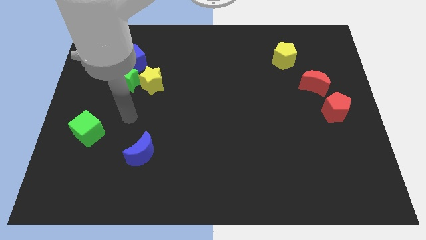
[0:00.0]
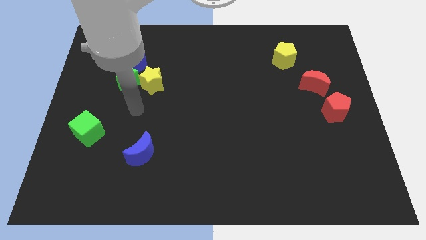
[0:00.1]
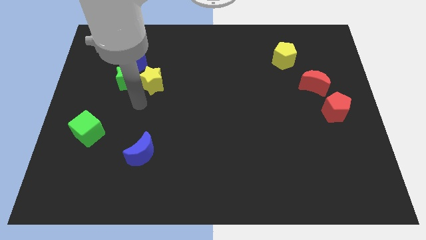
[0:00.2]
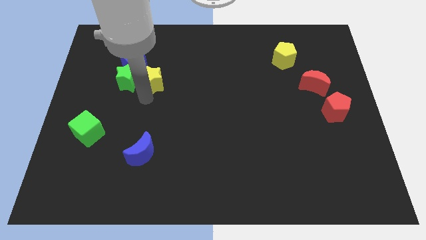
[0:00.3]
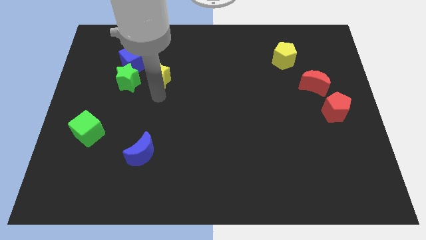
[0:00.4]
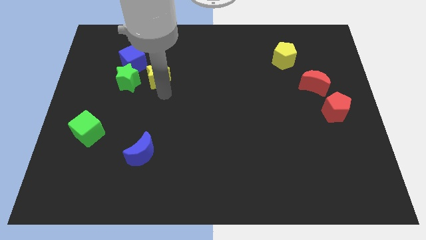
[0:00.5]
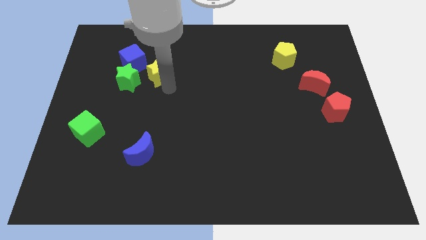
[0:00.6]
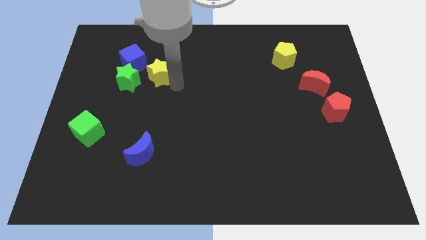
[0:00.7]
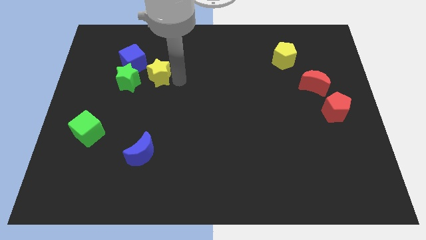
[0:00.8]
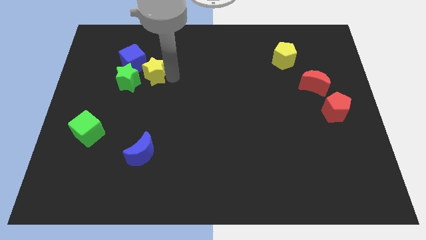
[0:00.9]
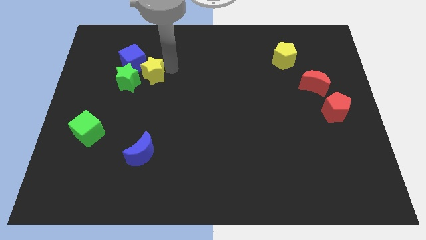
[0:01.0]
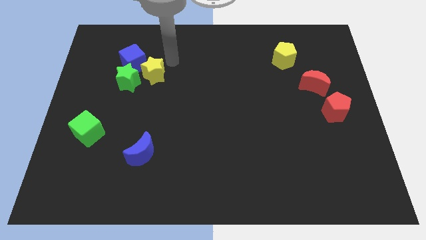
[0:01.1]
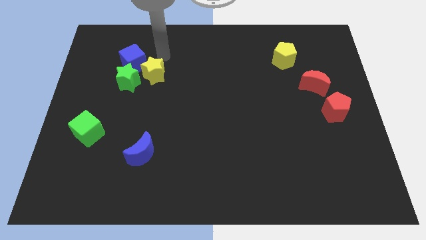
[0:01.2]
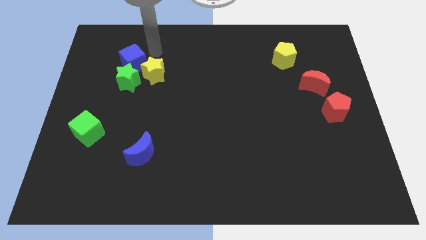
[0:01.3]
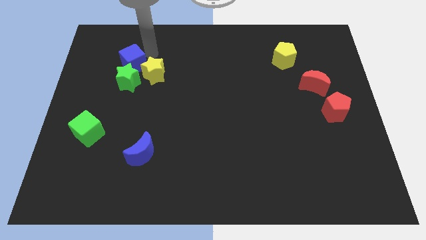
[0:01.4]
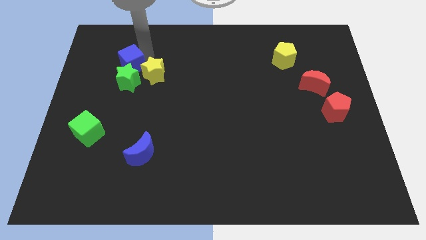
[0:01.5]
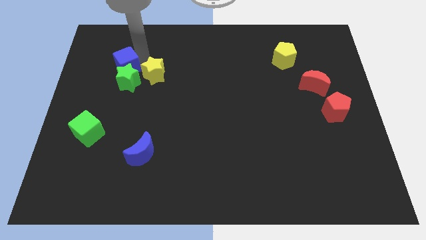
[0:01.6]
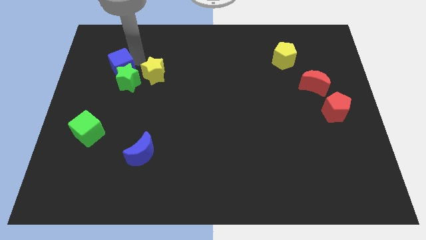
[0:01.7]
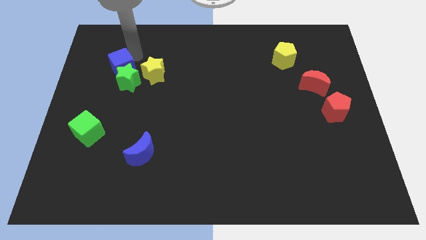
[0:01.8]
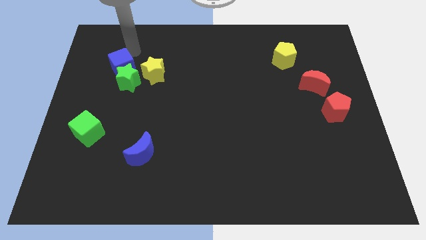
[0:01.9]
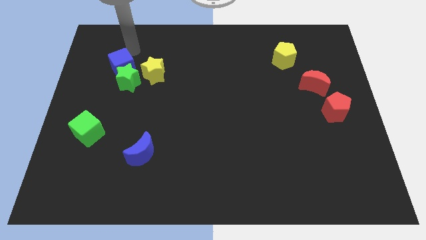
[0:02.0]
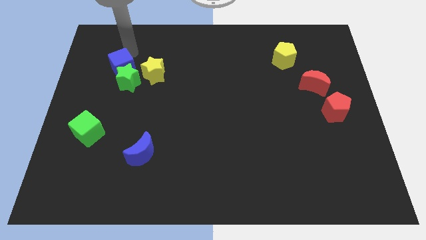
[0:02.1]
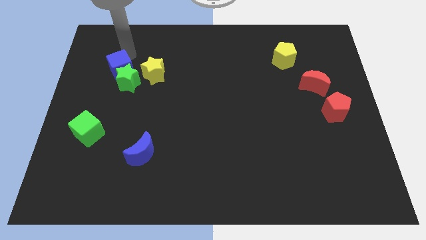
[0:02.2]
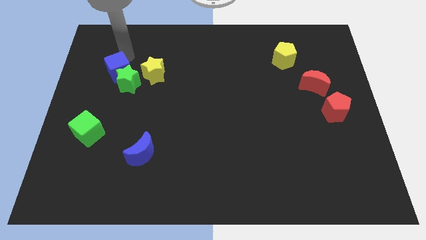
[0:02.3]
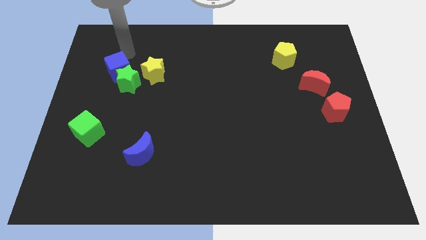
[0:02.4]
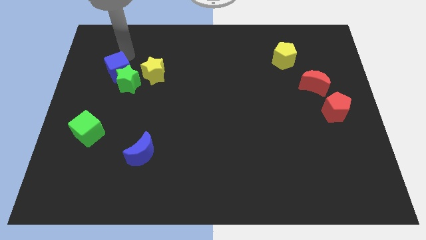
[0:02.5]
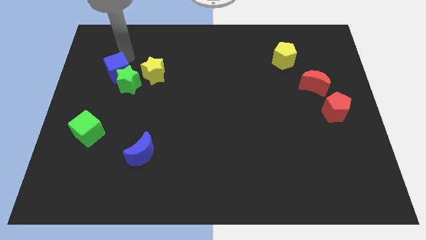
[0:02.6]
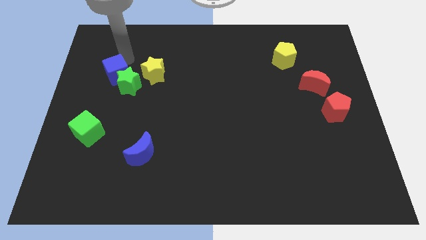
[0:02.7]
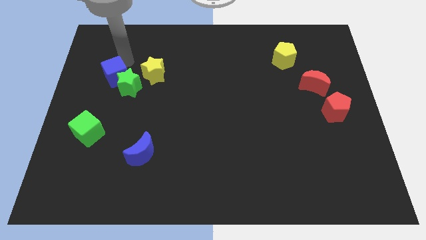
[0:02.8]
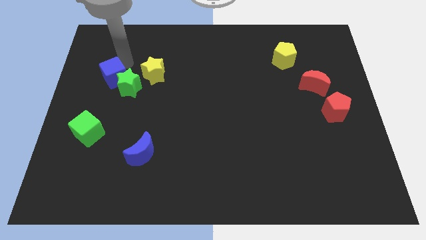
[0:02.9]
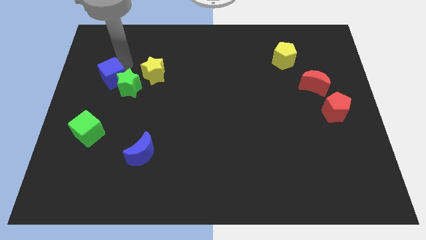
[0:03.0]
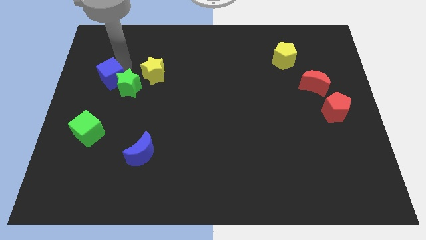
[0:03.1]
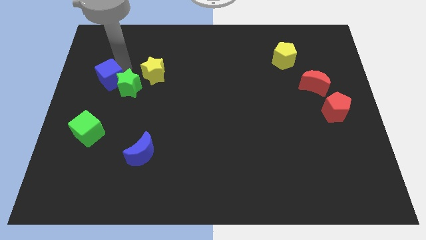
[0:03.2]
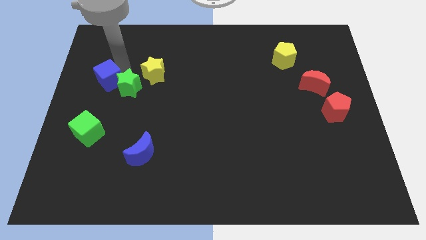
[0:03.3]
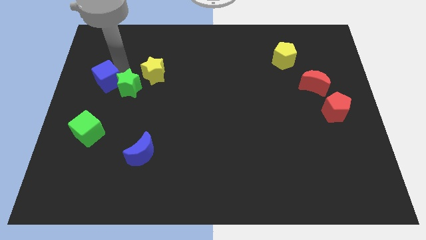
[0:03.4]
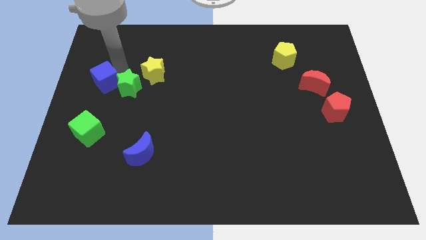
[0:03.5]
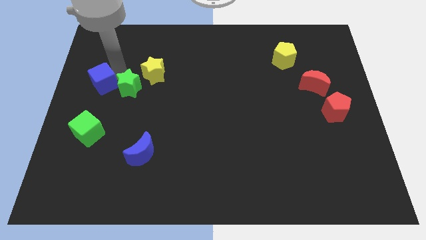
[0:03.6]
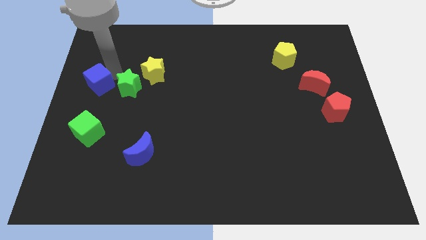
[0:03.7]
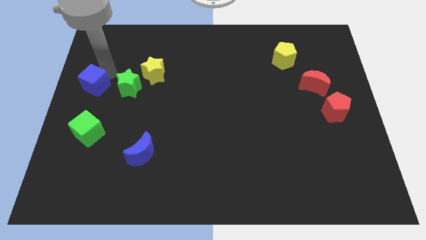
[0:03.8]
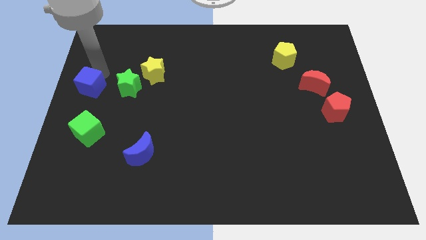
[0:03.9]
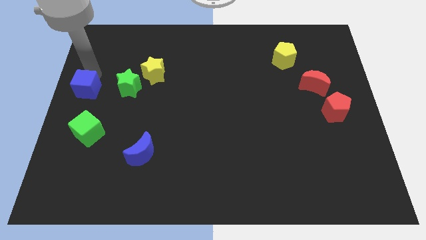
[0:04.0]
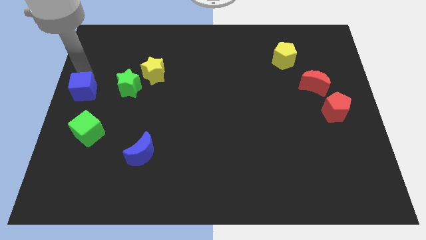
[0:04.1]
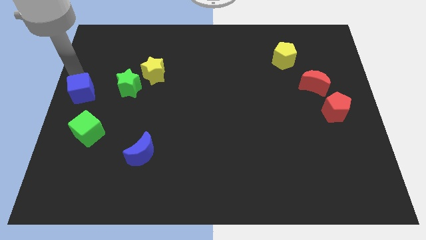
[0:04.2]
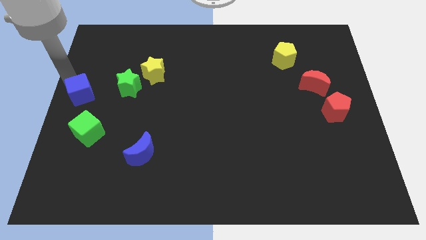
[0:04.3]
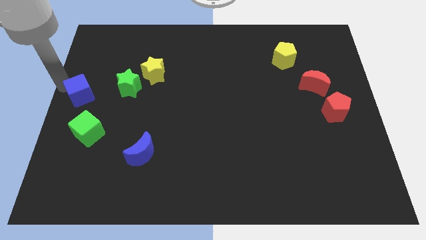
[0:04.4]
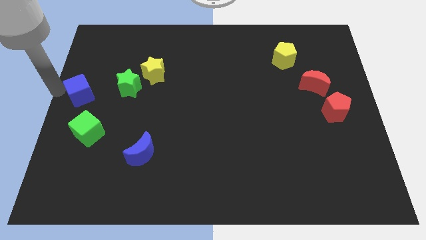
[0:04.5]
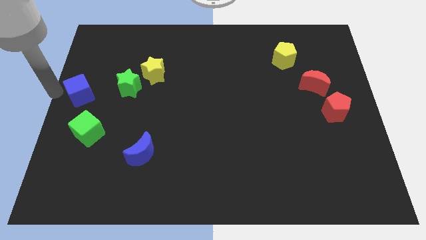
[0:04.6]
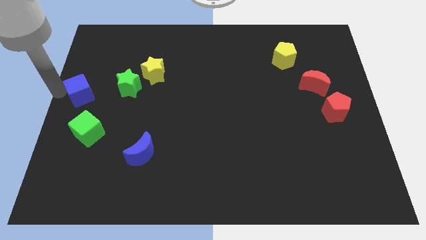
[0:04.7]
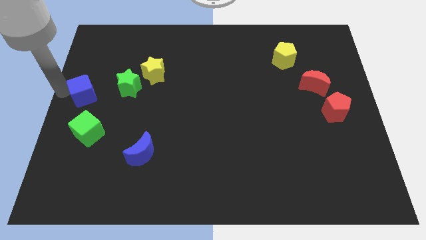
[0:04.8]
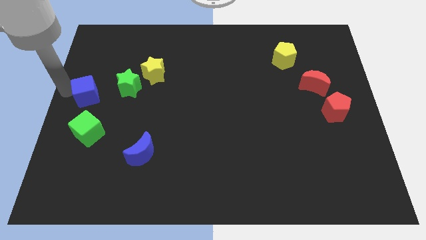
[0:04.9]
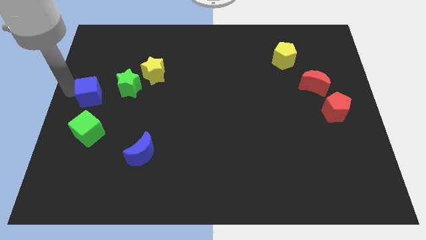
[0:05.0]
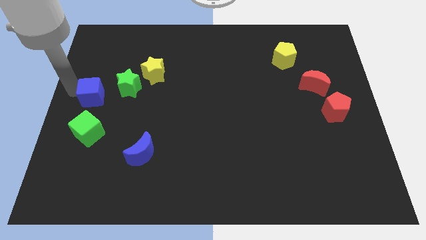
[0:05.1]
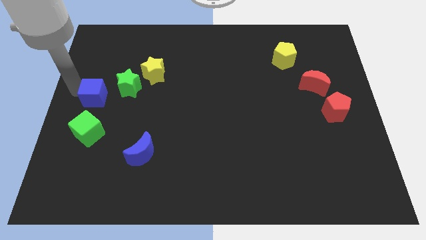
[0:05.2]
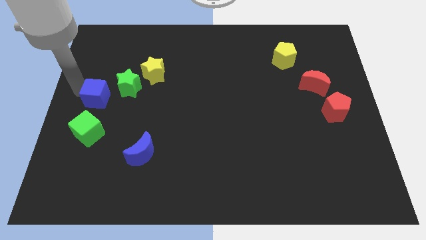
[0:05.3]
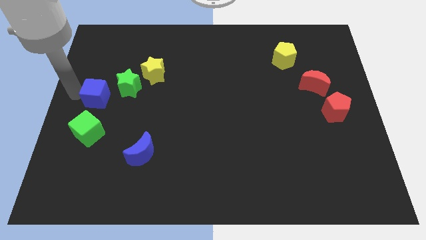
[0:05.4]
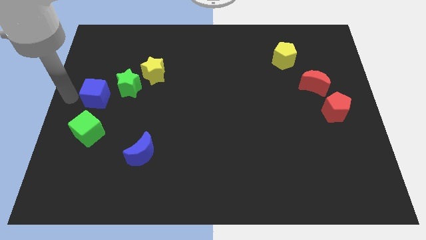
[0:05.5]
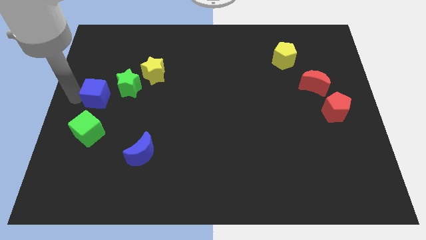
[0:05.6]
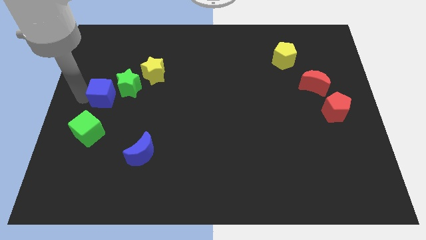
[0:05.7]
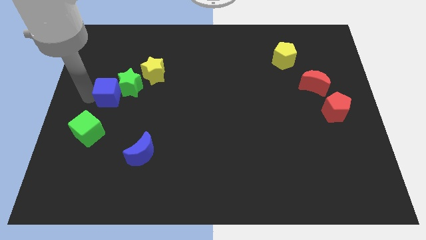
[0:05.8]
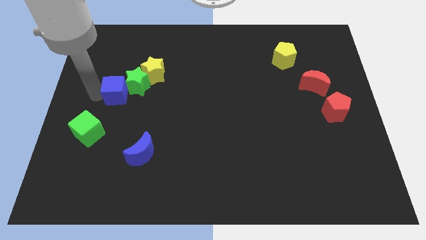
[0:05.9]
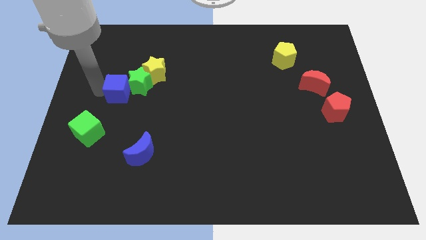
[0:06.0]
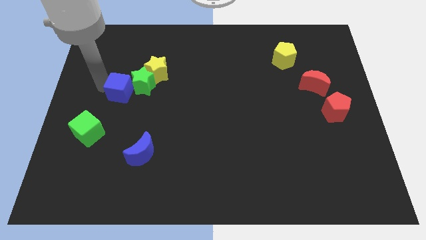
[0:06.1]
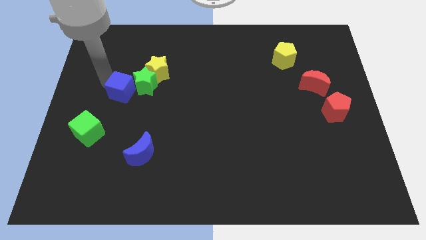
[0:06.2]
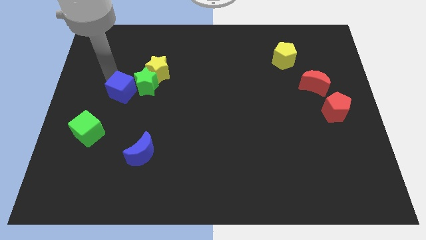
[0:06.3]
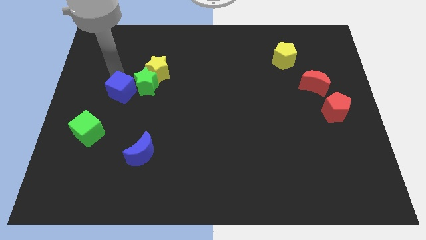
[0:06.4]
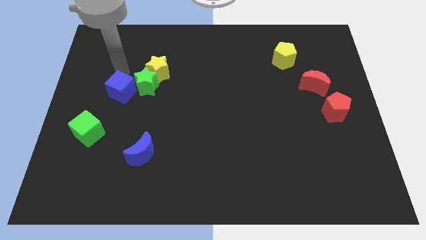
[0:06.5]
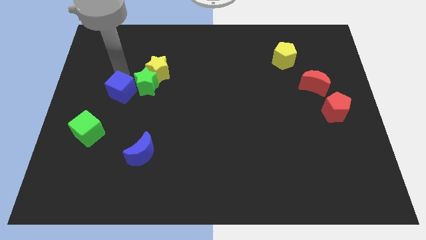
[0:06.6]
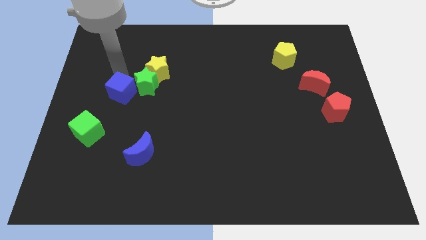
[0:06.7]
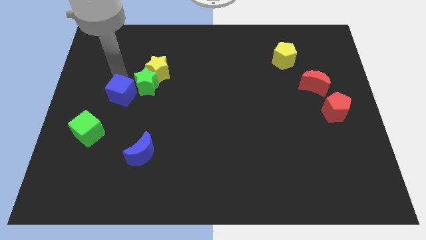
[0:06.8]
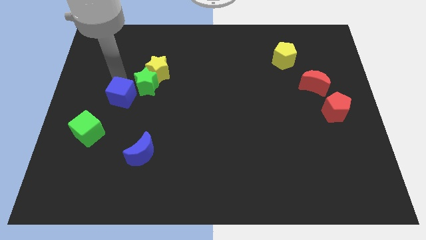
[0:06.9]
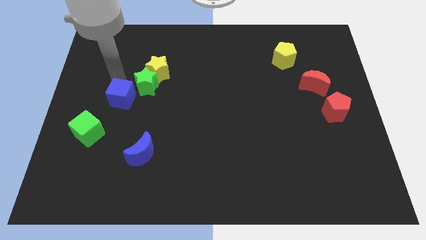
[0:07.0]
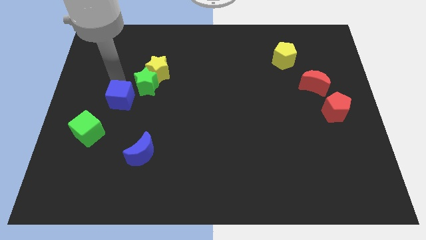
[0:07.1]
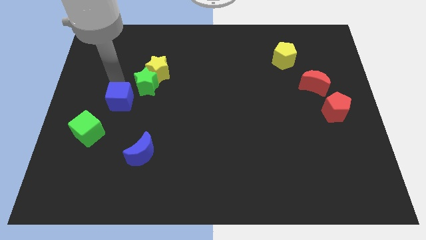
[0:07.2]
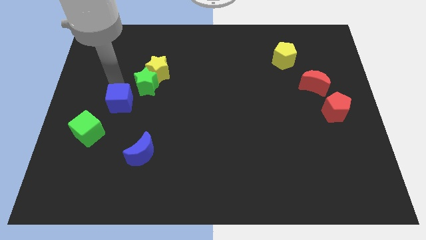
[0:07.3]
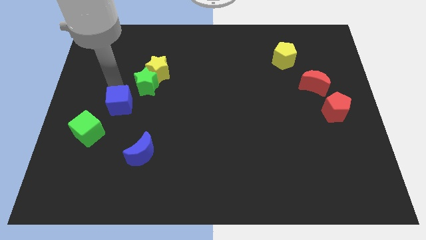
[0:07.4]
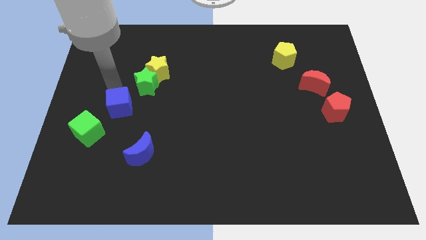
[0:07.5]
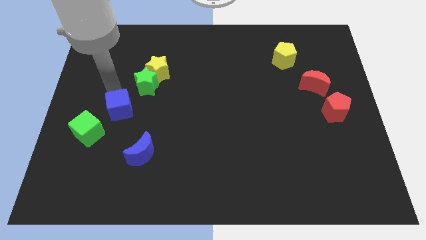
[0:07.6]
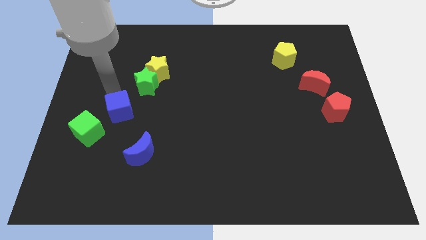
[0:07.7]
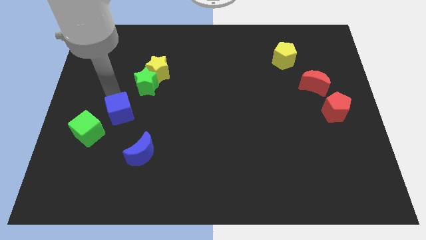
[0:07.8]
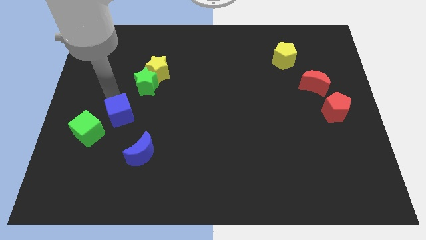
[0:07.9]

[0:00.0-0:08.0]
put the blue cube to the right side of the green cube
